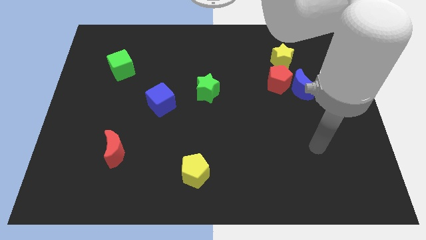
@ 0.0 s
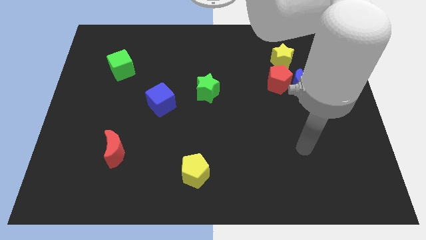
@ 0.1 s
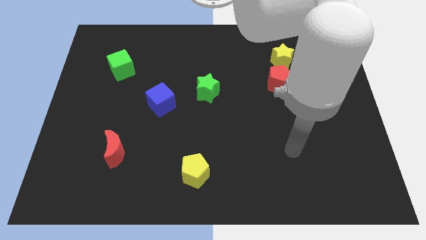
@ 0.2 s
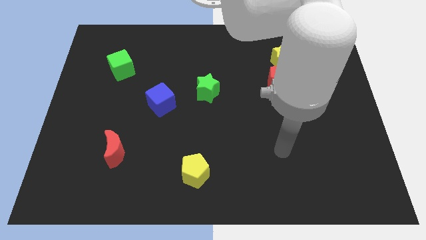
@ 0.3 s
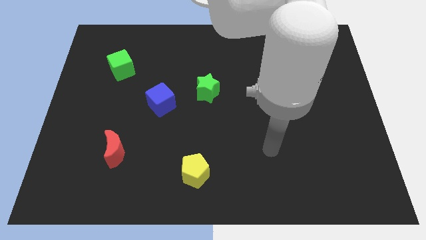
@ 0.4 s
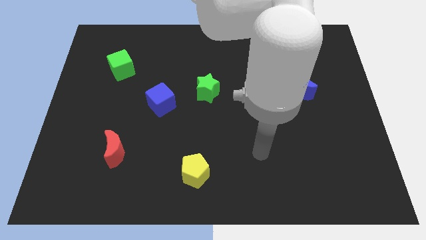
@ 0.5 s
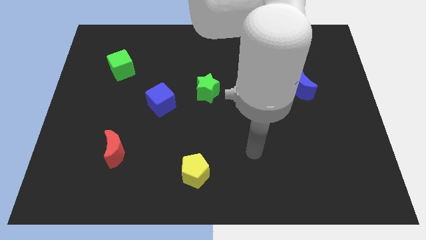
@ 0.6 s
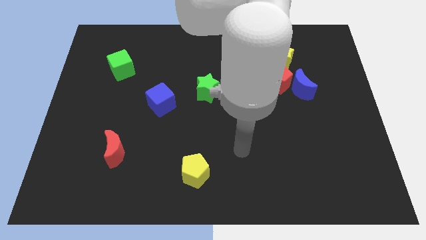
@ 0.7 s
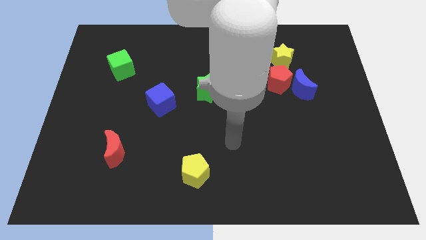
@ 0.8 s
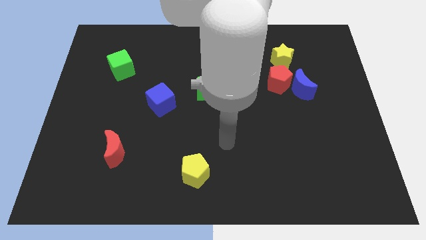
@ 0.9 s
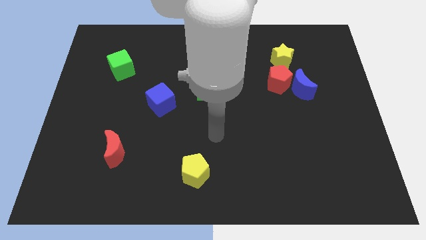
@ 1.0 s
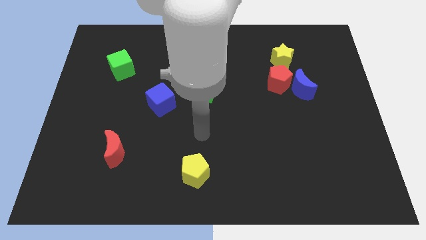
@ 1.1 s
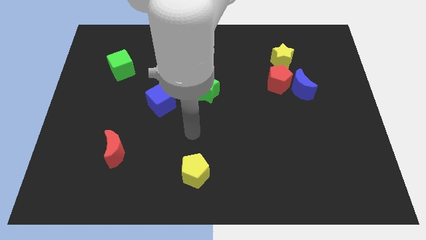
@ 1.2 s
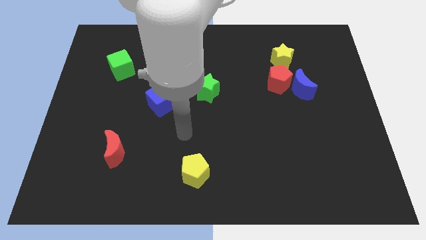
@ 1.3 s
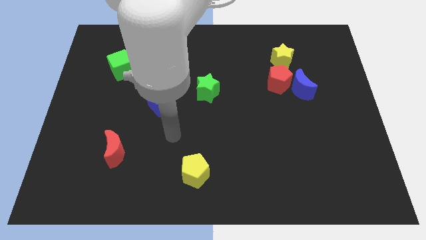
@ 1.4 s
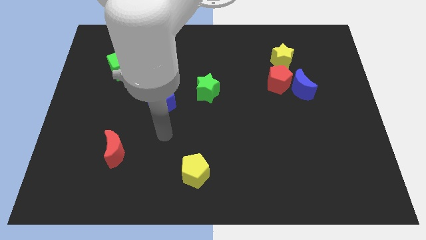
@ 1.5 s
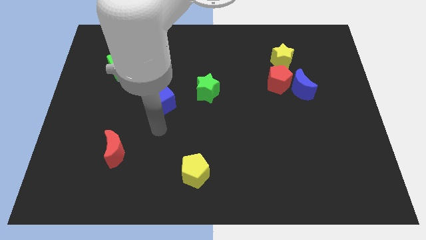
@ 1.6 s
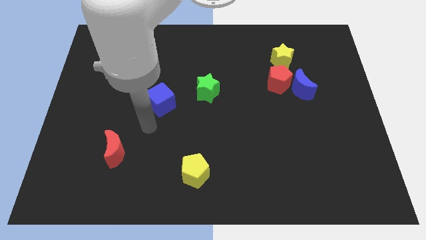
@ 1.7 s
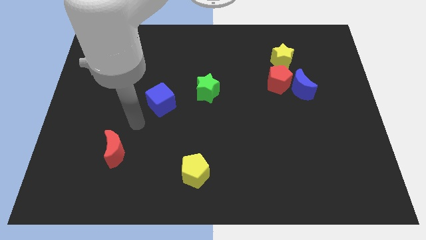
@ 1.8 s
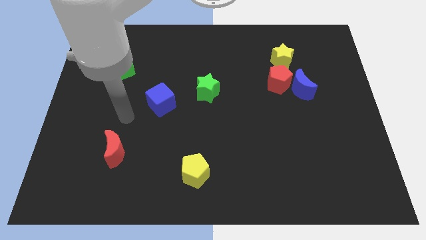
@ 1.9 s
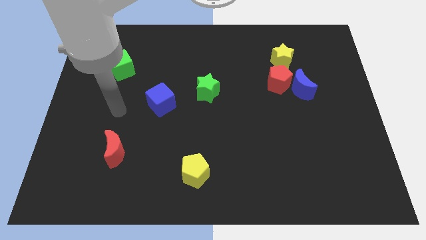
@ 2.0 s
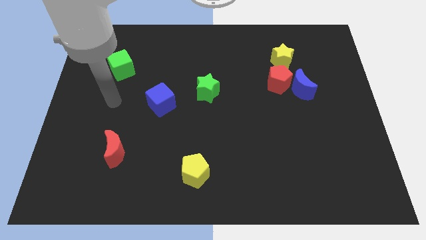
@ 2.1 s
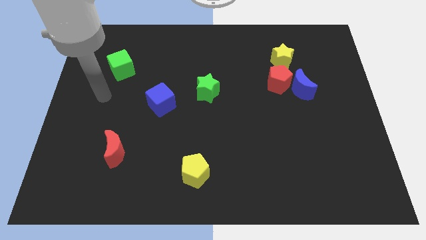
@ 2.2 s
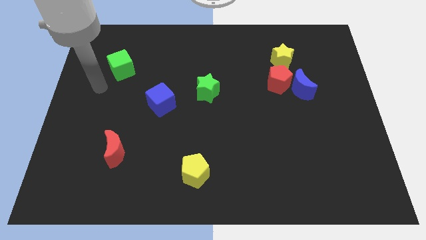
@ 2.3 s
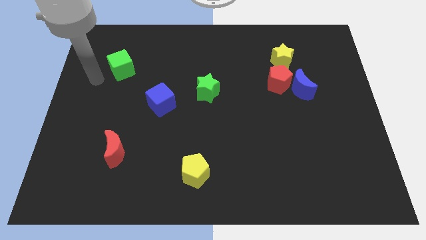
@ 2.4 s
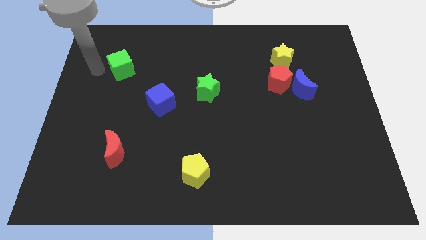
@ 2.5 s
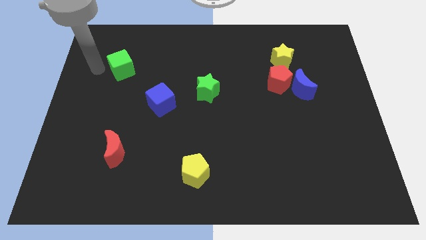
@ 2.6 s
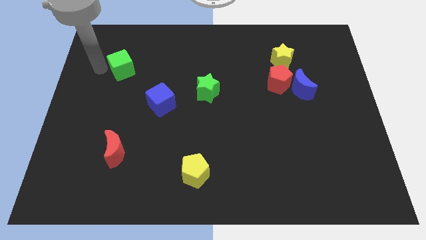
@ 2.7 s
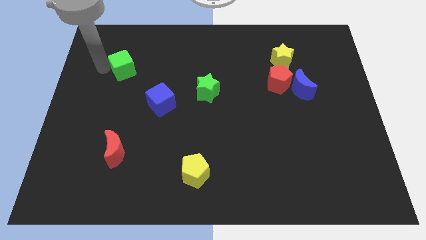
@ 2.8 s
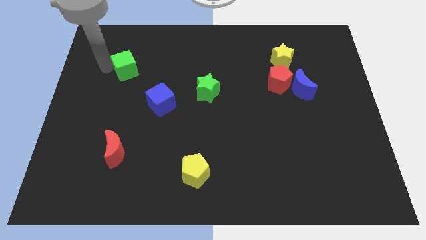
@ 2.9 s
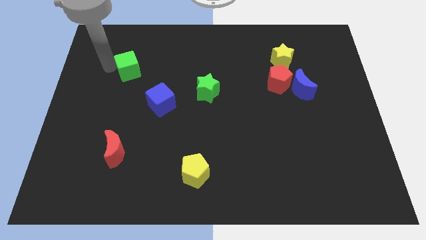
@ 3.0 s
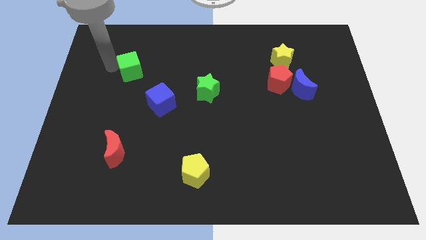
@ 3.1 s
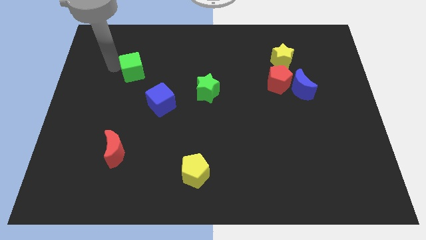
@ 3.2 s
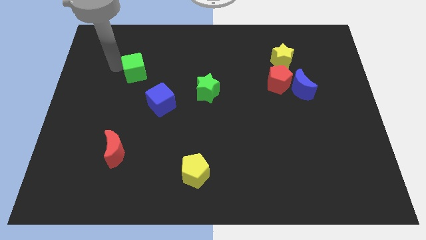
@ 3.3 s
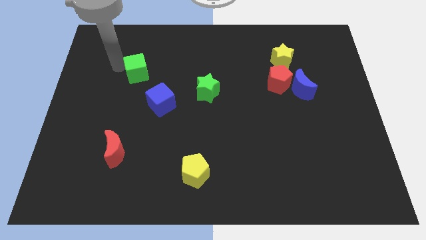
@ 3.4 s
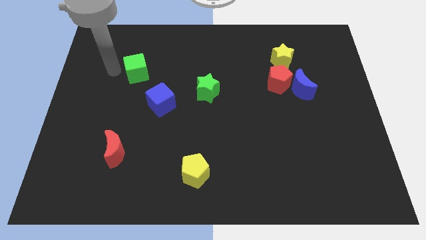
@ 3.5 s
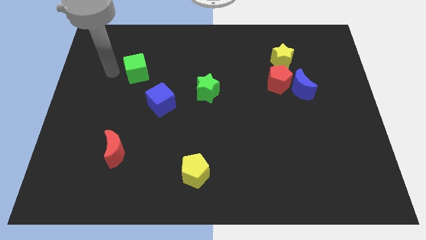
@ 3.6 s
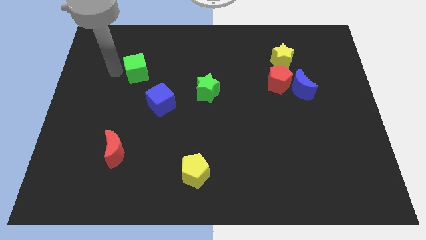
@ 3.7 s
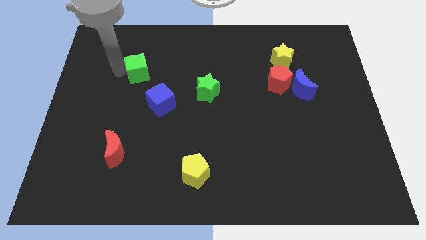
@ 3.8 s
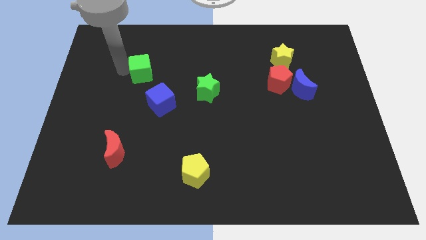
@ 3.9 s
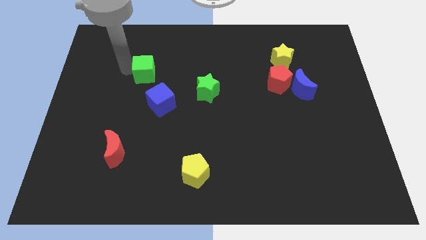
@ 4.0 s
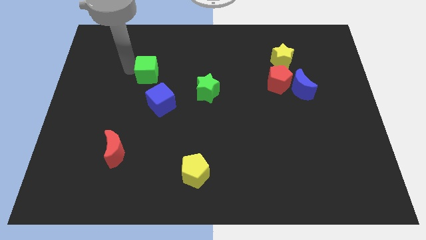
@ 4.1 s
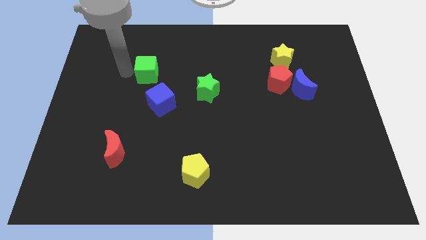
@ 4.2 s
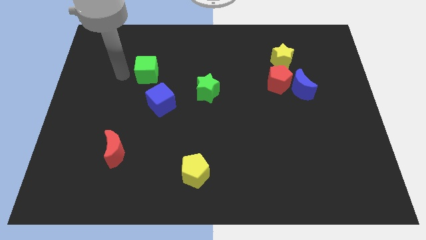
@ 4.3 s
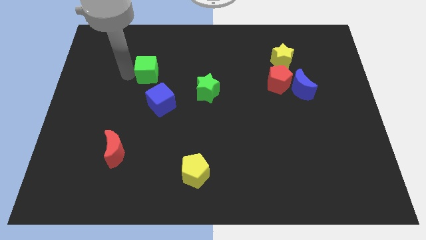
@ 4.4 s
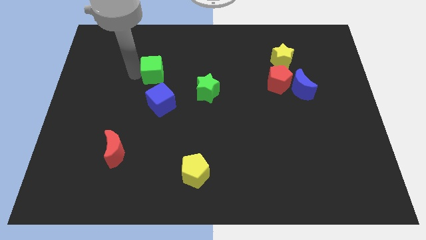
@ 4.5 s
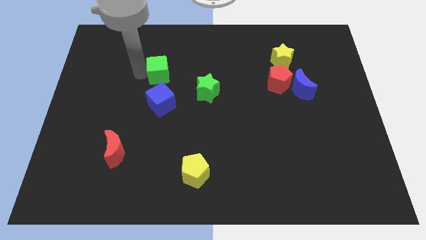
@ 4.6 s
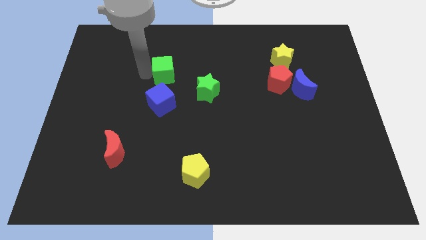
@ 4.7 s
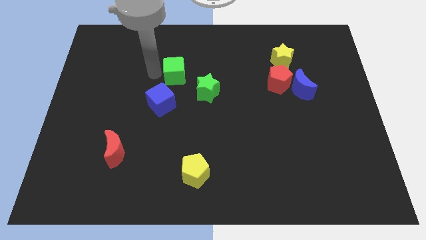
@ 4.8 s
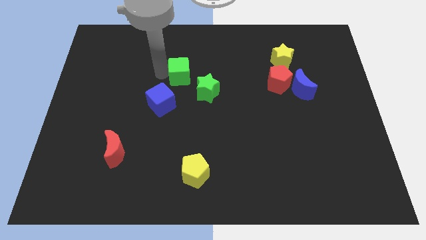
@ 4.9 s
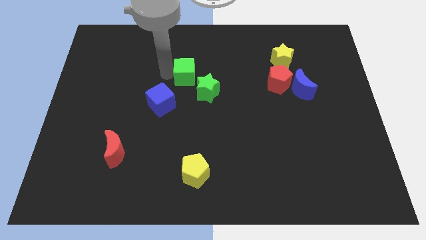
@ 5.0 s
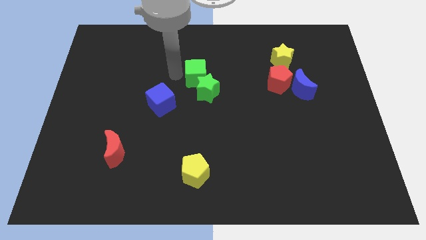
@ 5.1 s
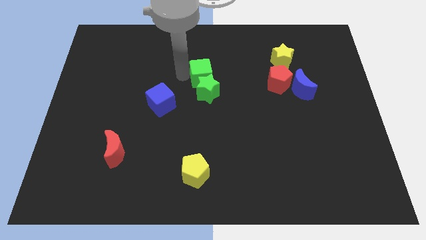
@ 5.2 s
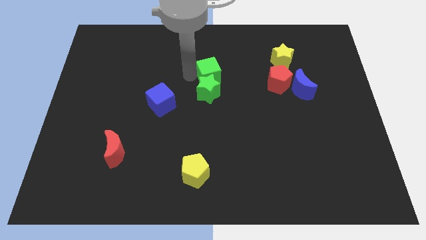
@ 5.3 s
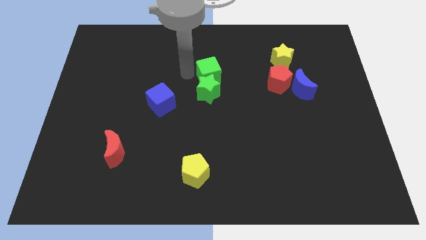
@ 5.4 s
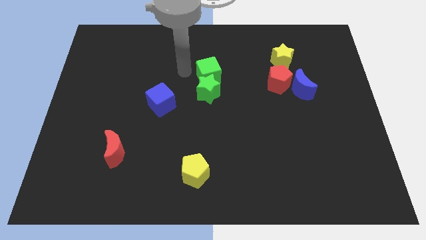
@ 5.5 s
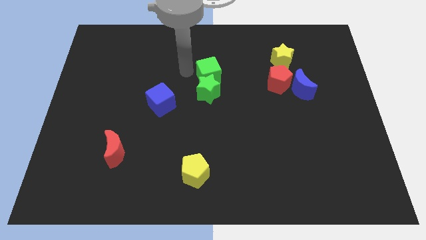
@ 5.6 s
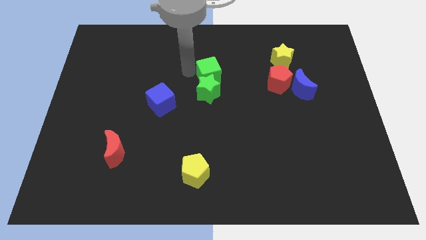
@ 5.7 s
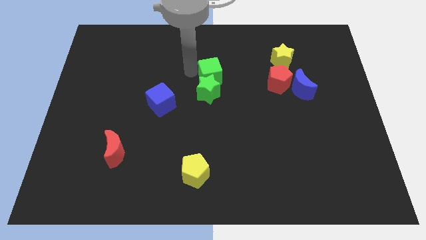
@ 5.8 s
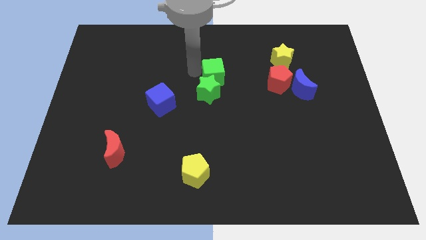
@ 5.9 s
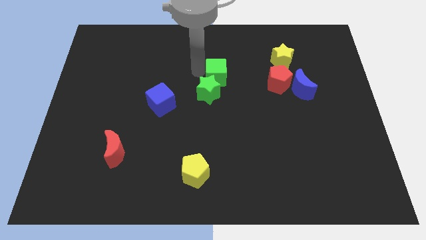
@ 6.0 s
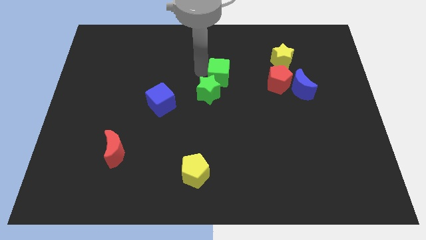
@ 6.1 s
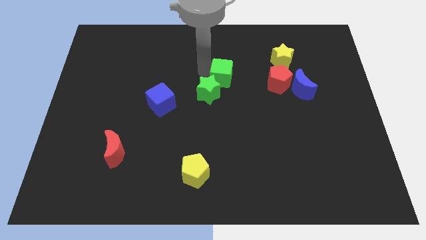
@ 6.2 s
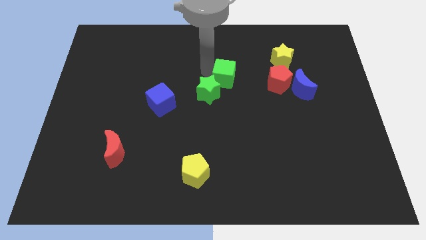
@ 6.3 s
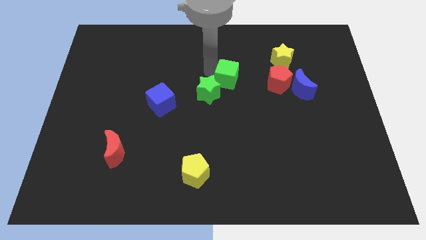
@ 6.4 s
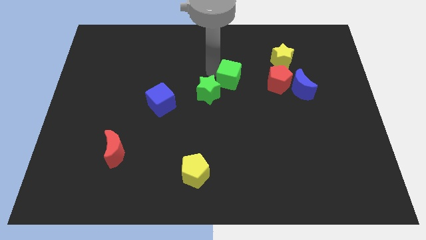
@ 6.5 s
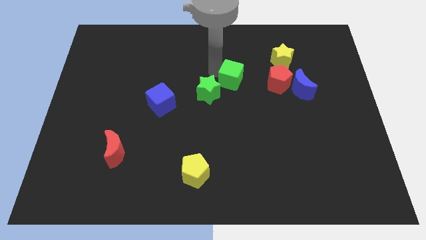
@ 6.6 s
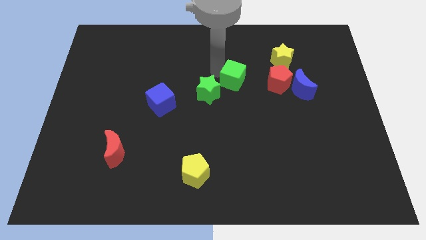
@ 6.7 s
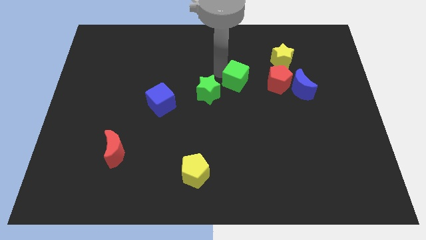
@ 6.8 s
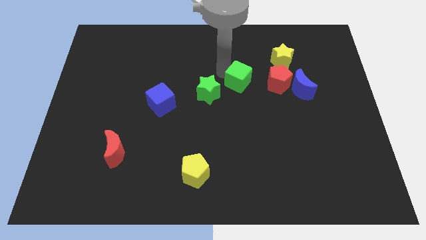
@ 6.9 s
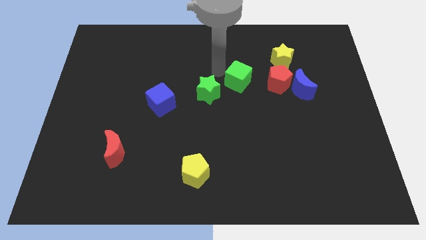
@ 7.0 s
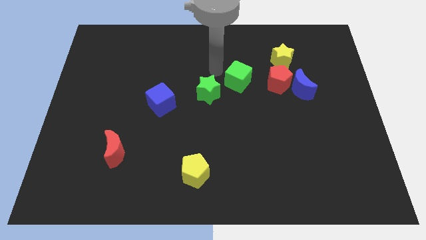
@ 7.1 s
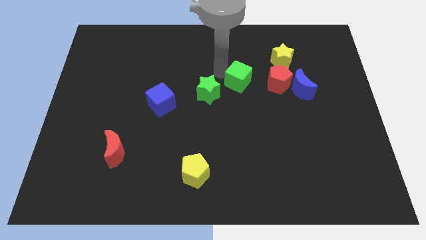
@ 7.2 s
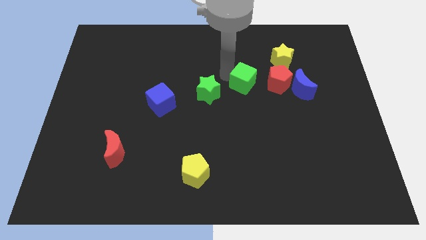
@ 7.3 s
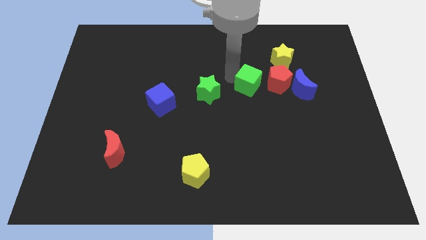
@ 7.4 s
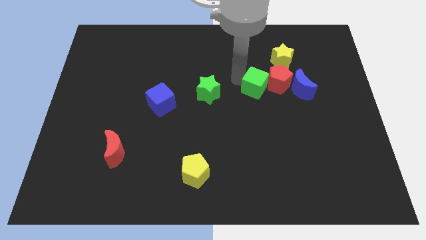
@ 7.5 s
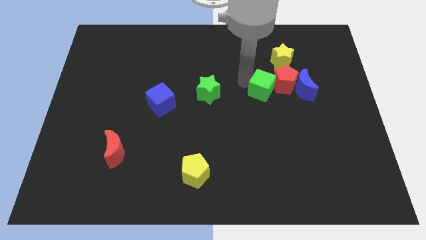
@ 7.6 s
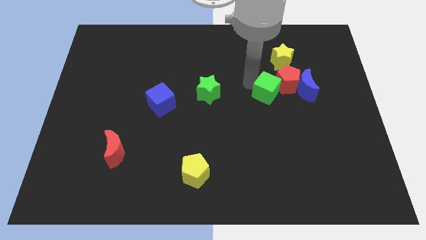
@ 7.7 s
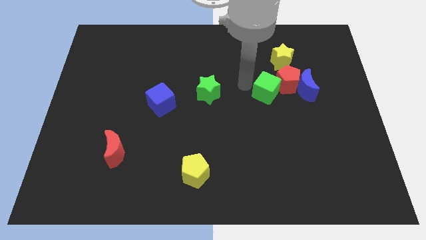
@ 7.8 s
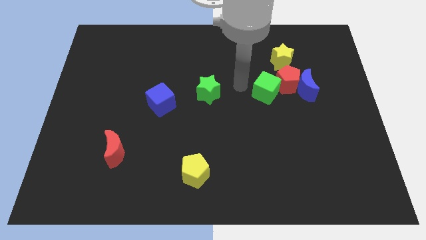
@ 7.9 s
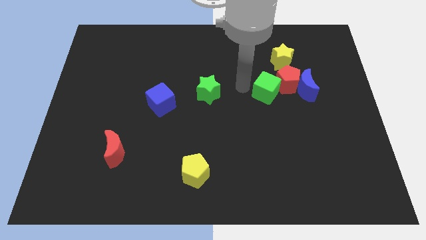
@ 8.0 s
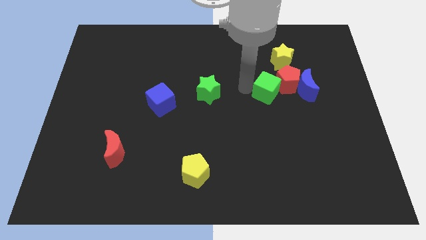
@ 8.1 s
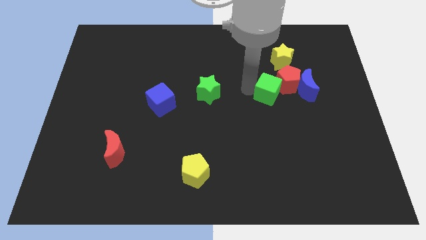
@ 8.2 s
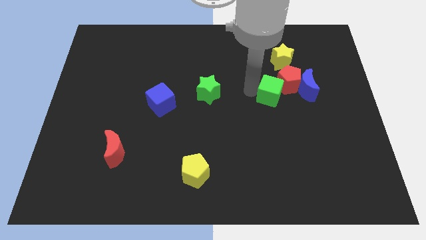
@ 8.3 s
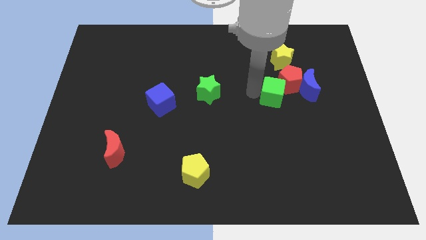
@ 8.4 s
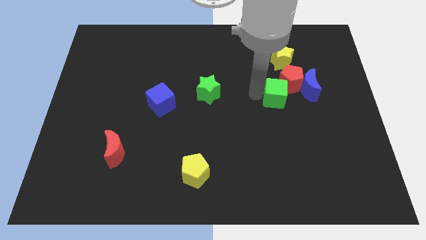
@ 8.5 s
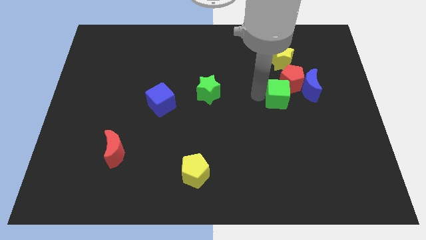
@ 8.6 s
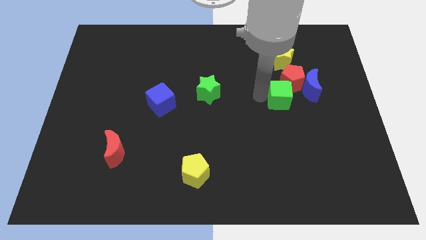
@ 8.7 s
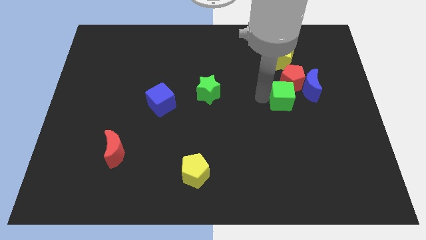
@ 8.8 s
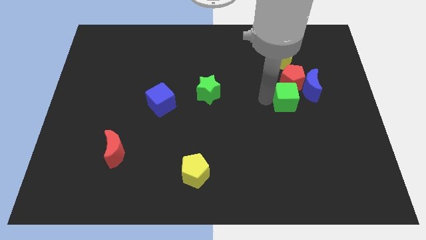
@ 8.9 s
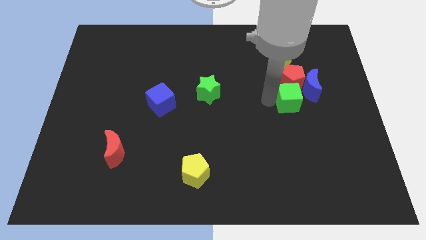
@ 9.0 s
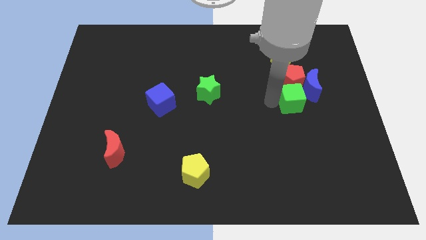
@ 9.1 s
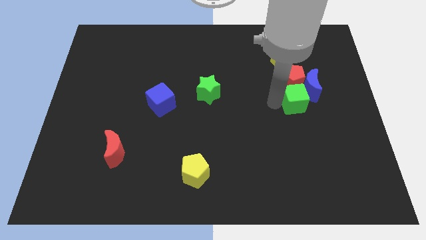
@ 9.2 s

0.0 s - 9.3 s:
move the green cube to the blue moon
